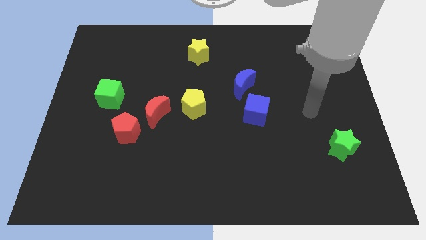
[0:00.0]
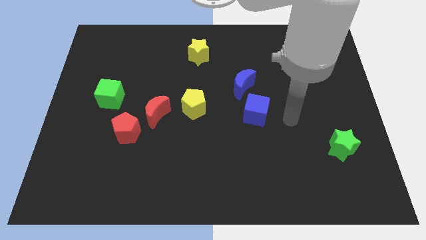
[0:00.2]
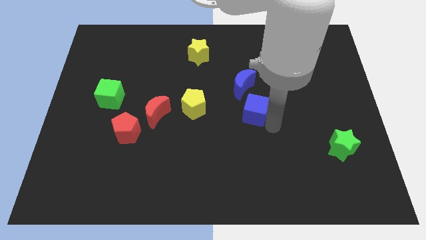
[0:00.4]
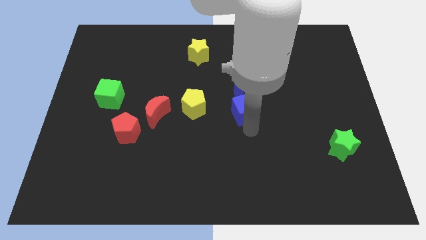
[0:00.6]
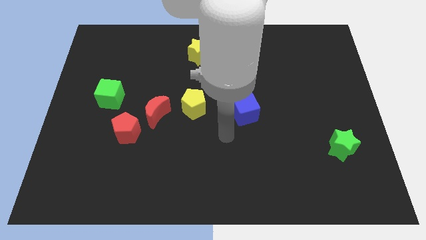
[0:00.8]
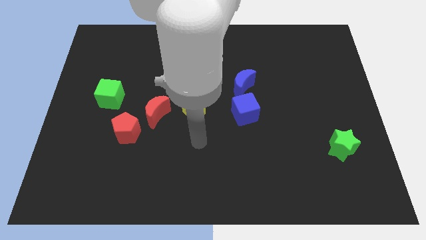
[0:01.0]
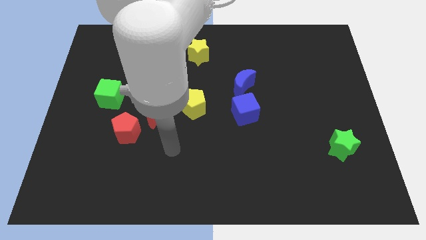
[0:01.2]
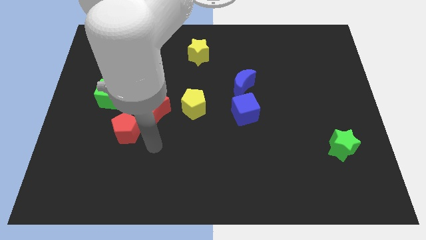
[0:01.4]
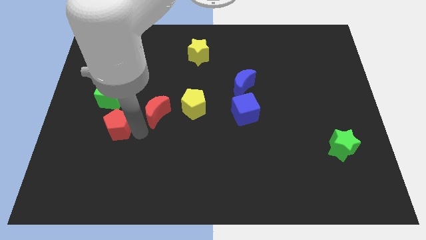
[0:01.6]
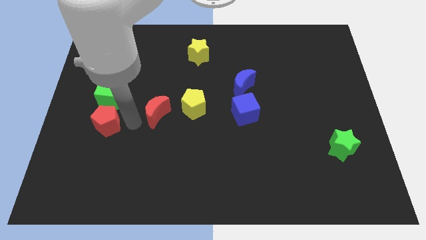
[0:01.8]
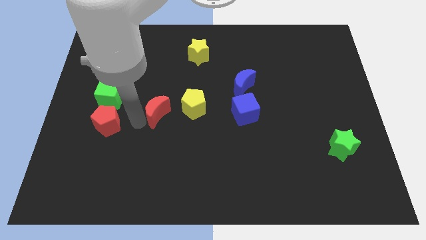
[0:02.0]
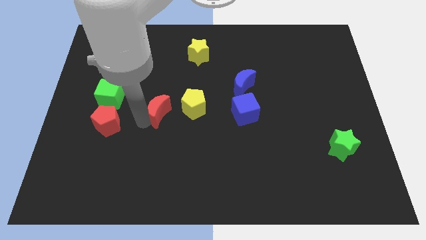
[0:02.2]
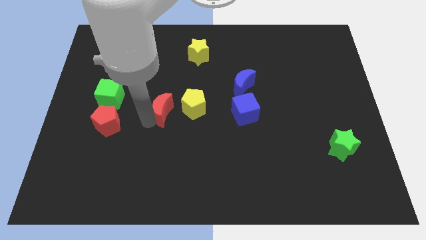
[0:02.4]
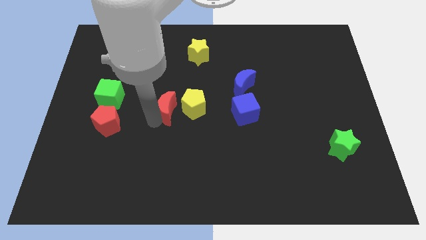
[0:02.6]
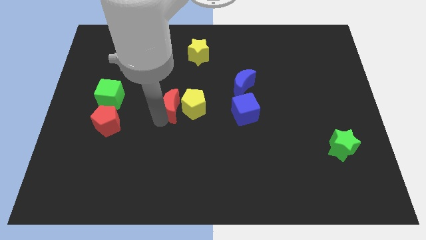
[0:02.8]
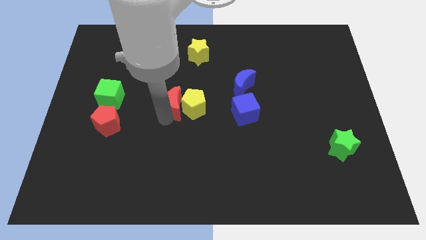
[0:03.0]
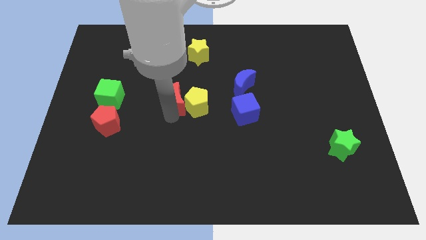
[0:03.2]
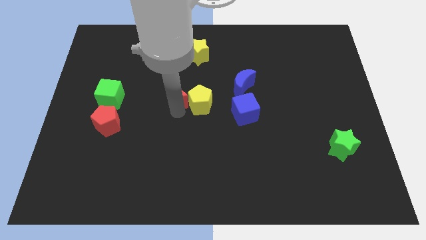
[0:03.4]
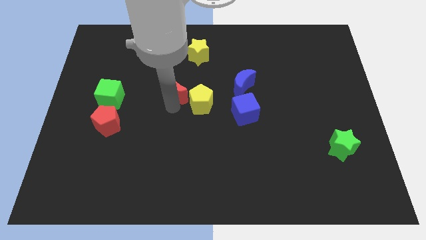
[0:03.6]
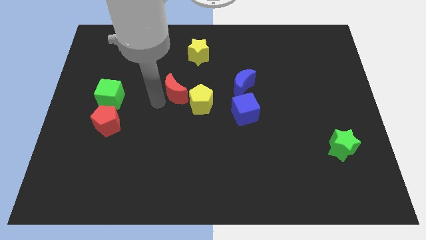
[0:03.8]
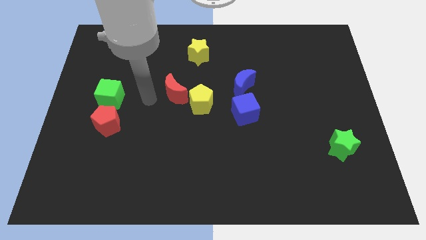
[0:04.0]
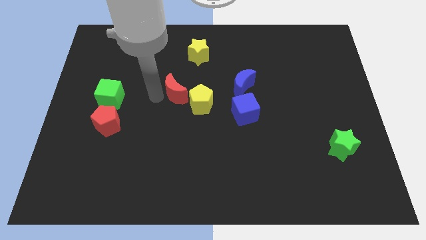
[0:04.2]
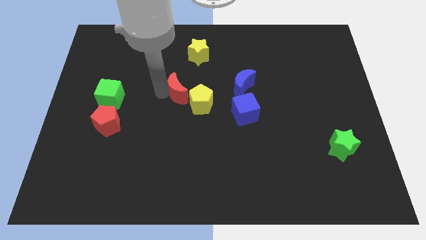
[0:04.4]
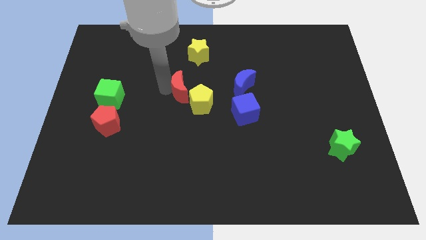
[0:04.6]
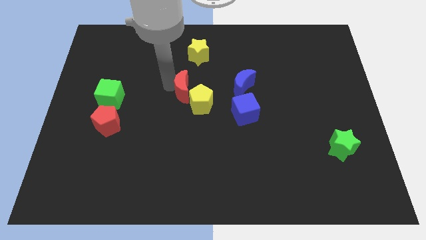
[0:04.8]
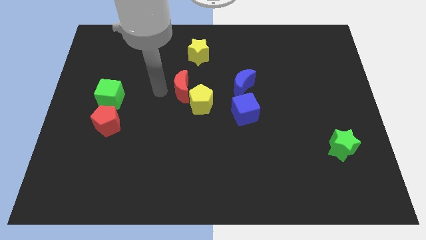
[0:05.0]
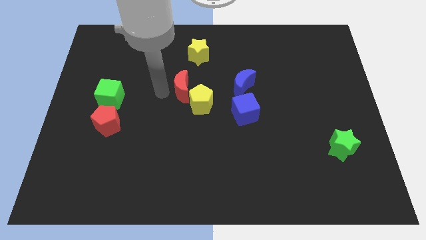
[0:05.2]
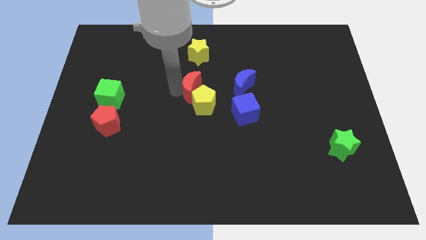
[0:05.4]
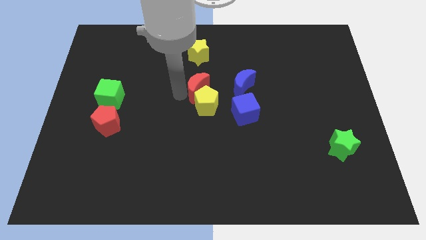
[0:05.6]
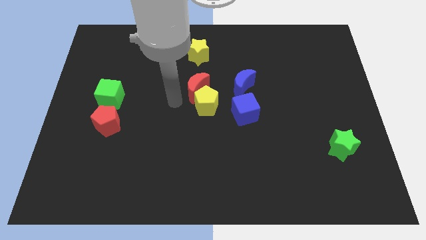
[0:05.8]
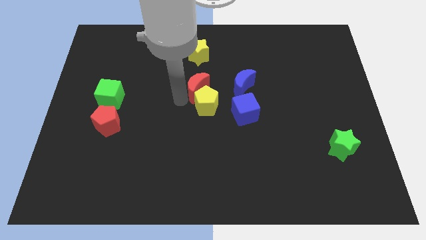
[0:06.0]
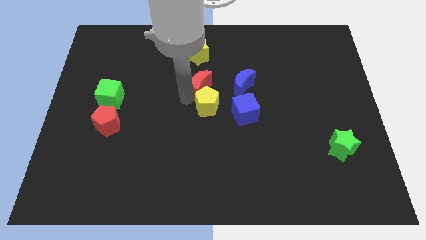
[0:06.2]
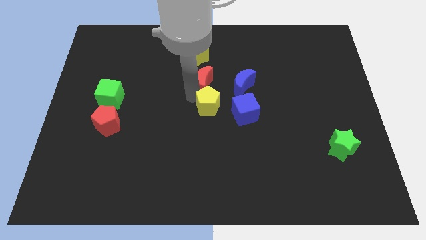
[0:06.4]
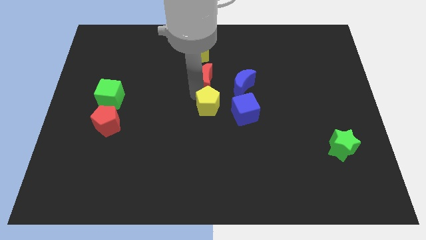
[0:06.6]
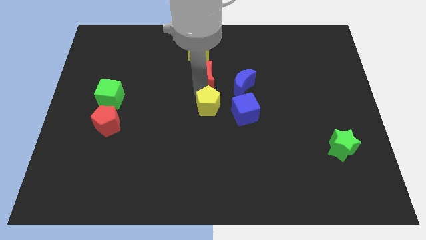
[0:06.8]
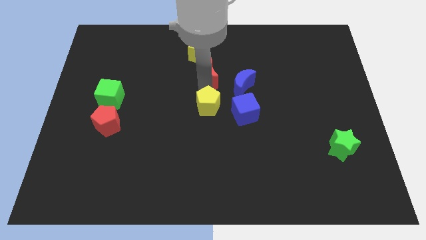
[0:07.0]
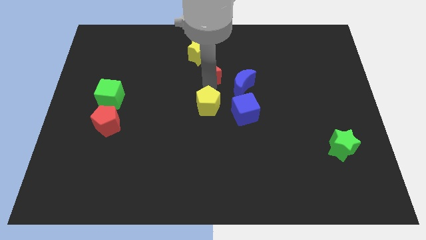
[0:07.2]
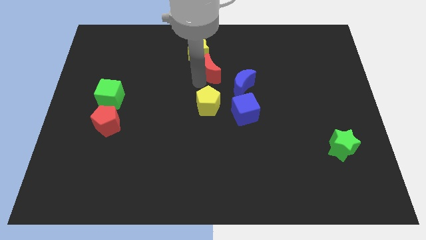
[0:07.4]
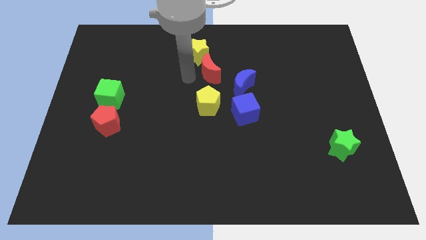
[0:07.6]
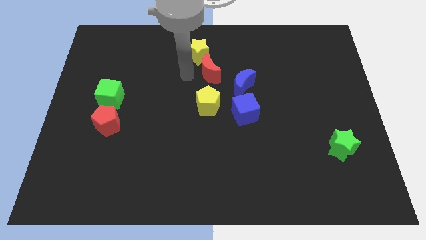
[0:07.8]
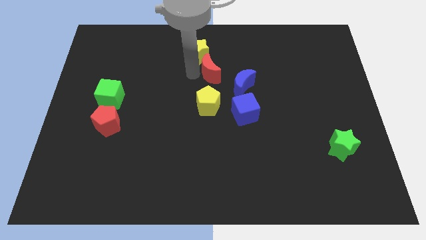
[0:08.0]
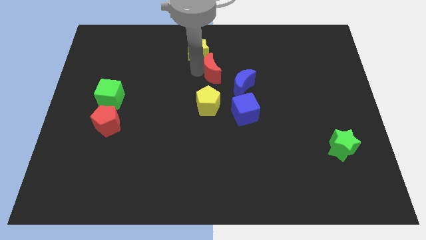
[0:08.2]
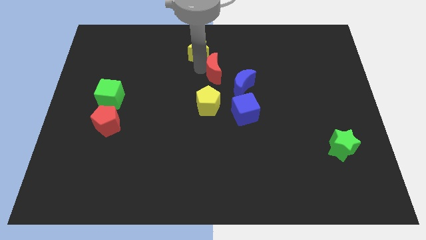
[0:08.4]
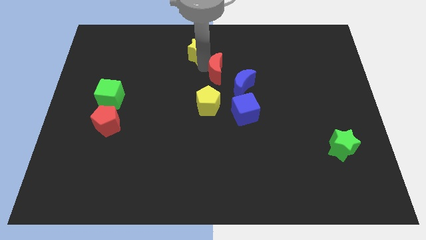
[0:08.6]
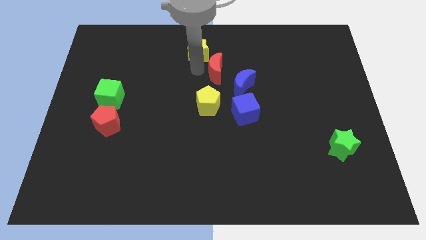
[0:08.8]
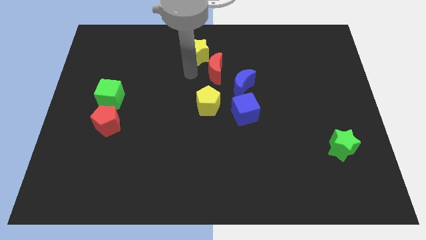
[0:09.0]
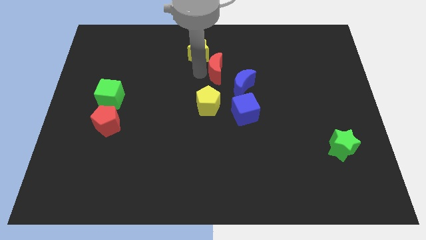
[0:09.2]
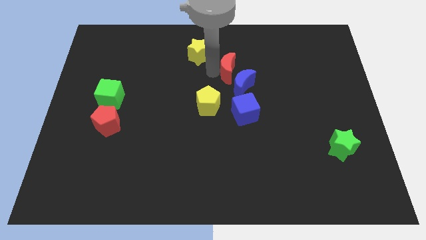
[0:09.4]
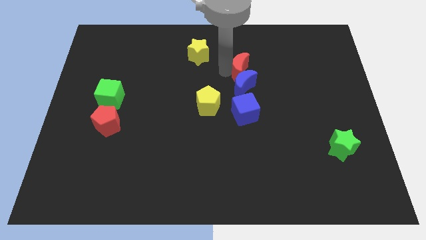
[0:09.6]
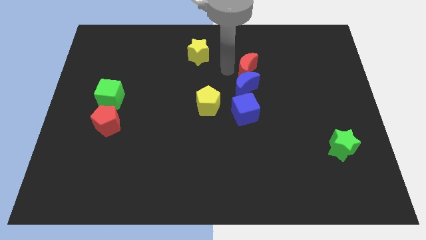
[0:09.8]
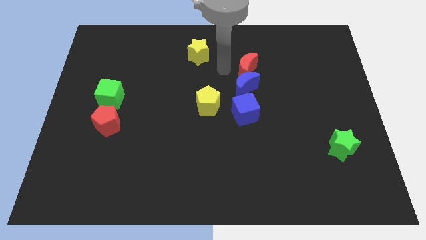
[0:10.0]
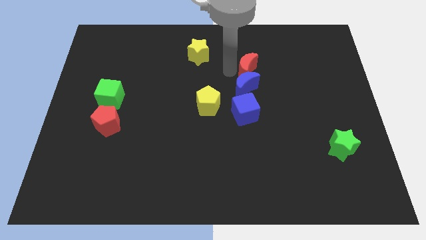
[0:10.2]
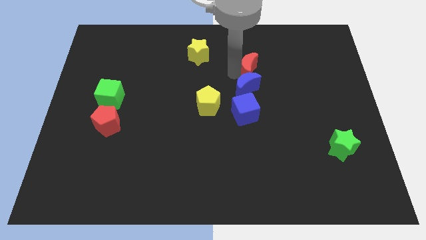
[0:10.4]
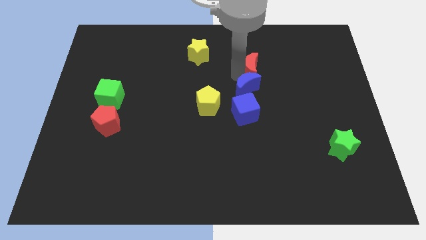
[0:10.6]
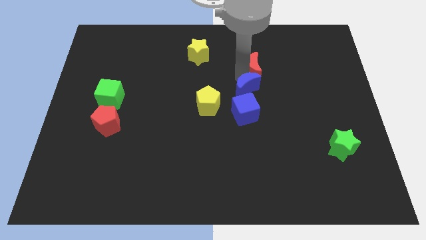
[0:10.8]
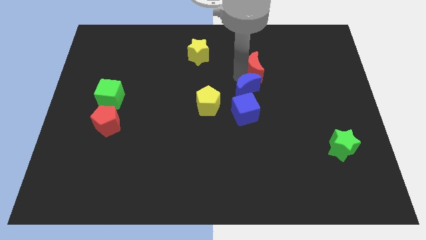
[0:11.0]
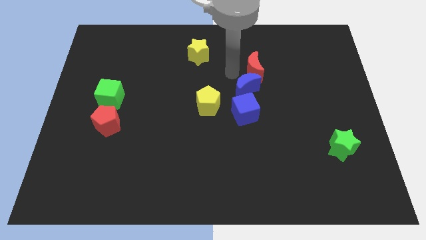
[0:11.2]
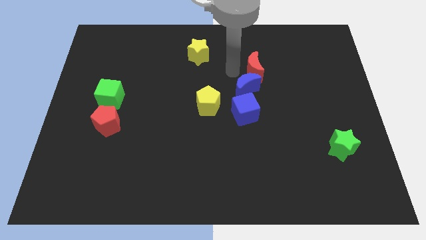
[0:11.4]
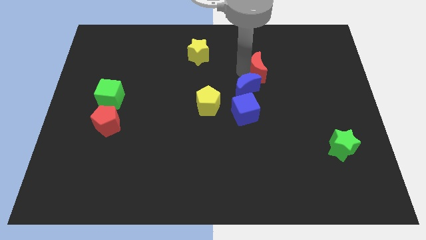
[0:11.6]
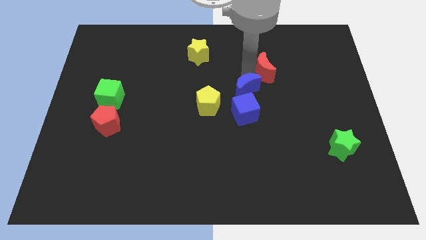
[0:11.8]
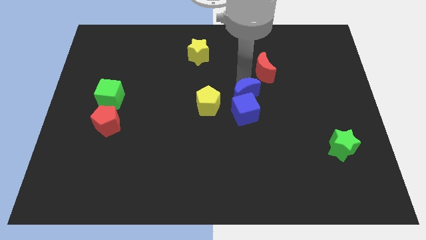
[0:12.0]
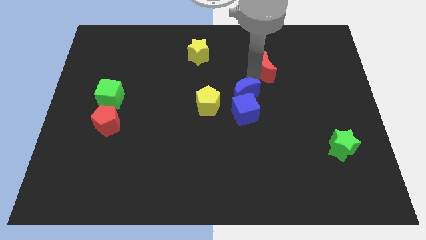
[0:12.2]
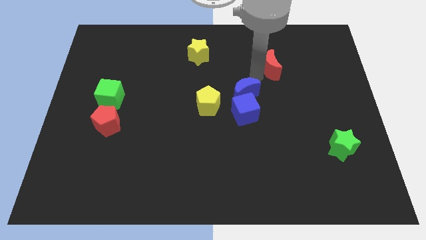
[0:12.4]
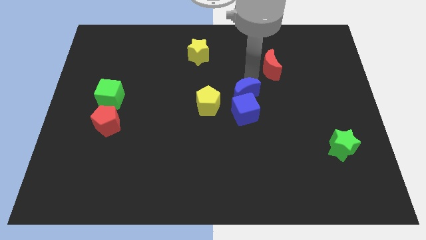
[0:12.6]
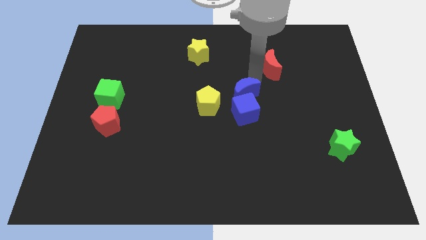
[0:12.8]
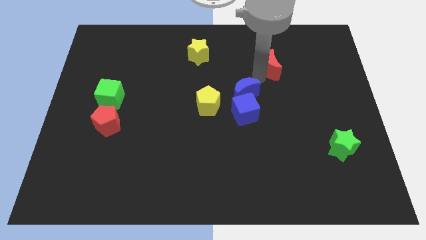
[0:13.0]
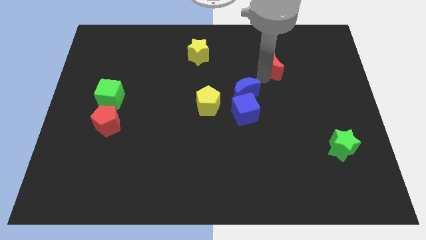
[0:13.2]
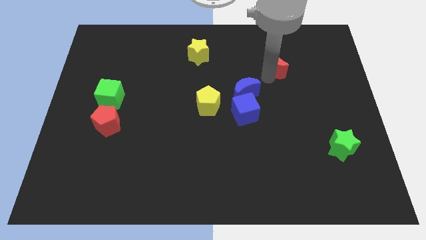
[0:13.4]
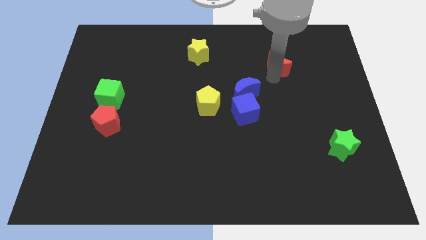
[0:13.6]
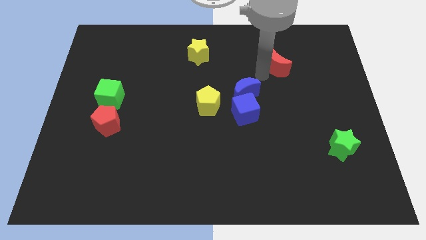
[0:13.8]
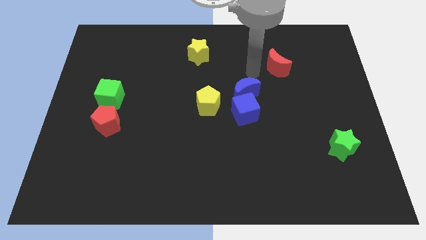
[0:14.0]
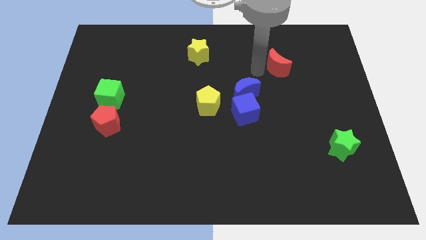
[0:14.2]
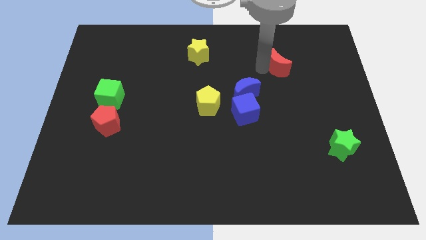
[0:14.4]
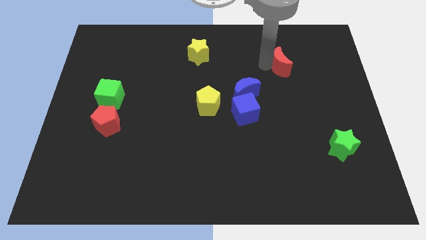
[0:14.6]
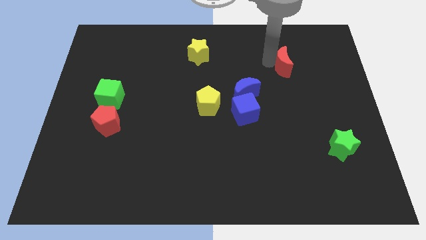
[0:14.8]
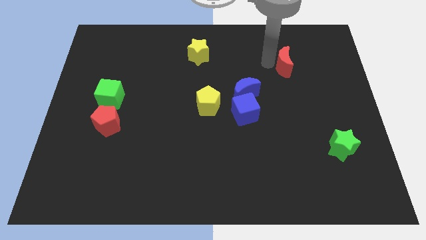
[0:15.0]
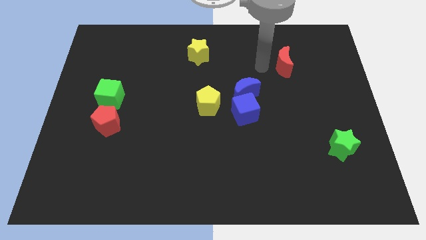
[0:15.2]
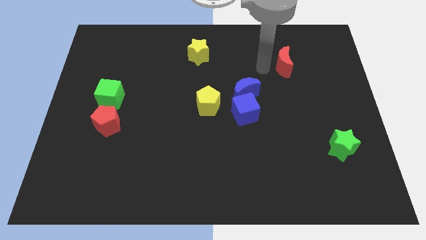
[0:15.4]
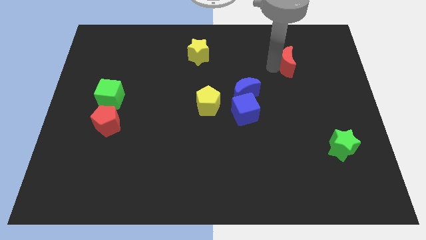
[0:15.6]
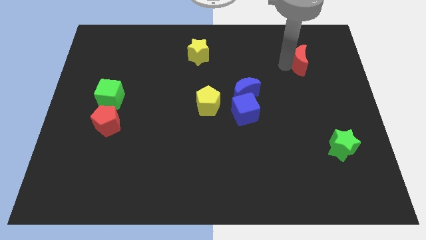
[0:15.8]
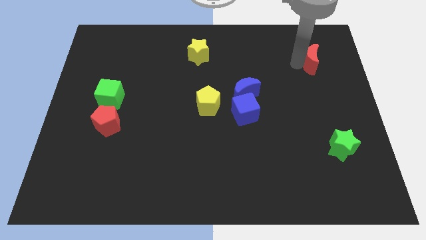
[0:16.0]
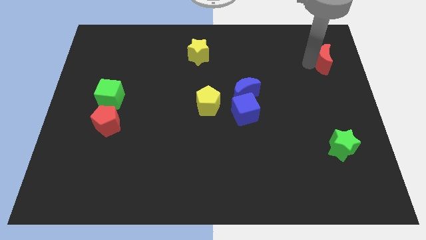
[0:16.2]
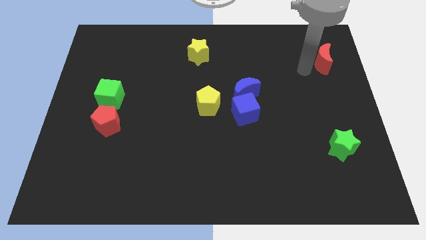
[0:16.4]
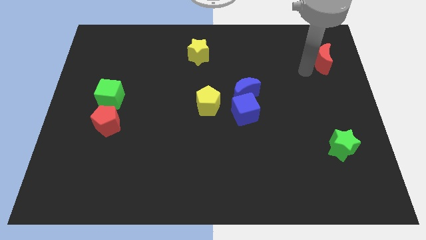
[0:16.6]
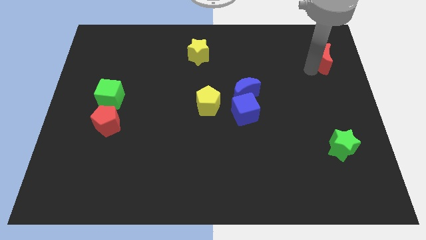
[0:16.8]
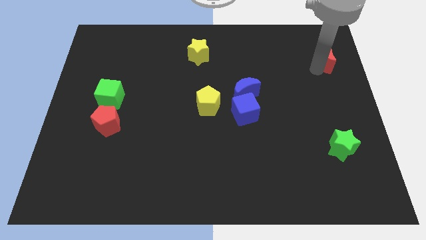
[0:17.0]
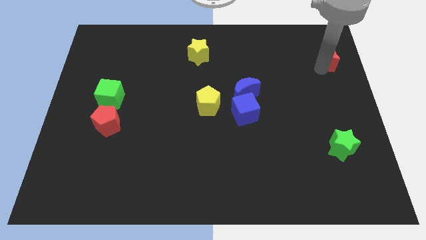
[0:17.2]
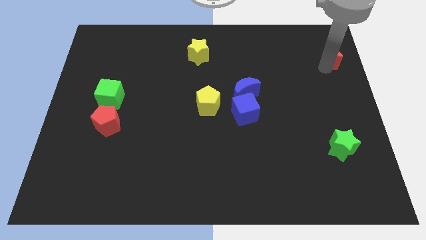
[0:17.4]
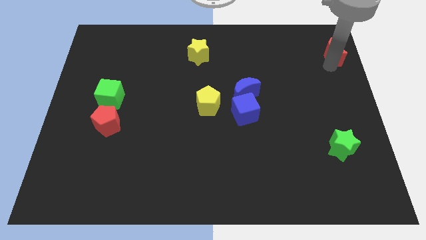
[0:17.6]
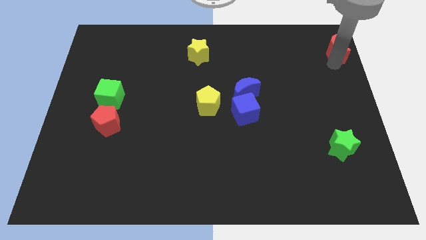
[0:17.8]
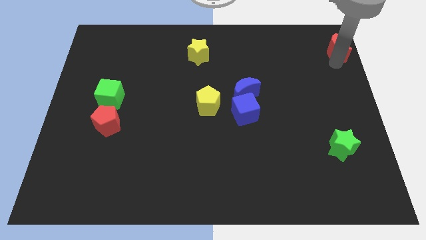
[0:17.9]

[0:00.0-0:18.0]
put the red moon to the top right of the board
